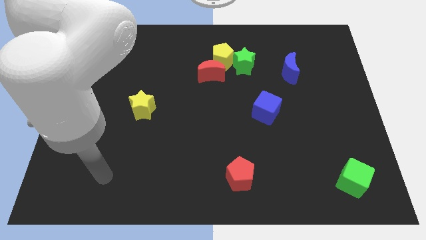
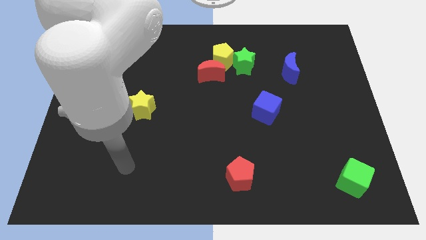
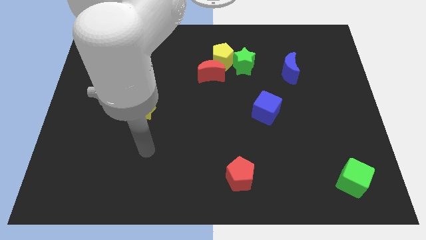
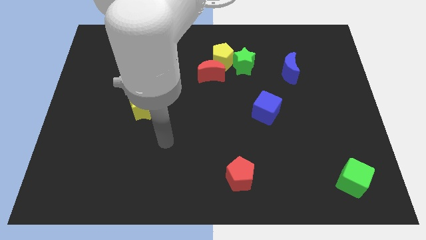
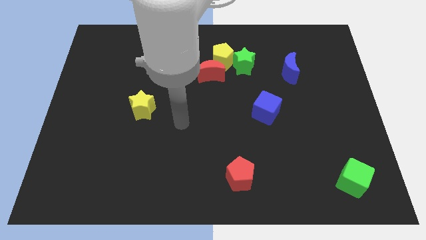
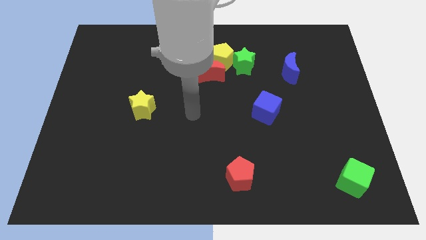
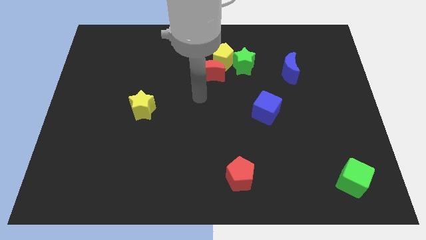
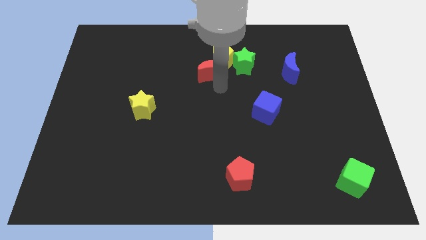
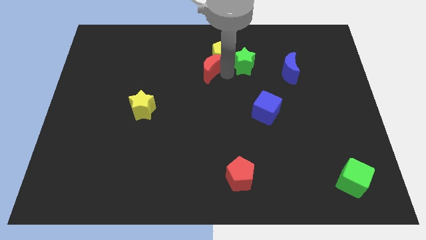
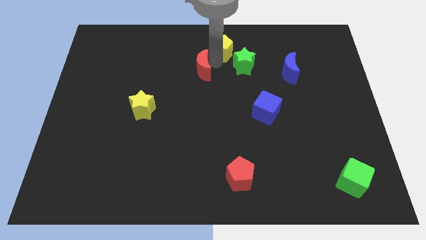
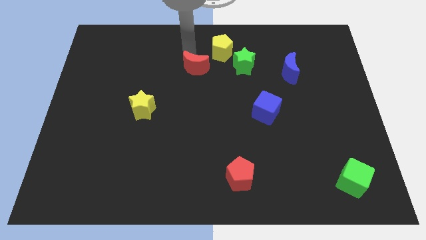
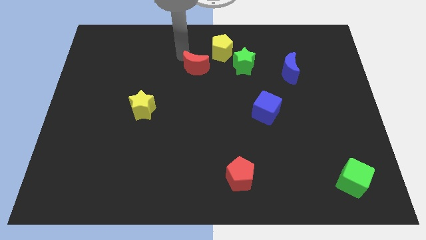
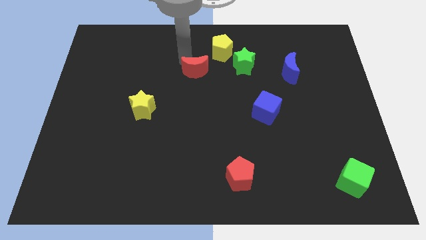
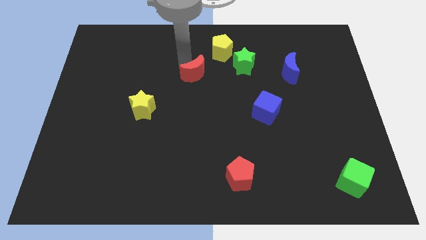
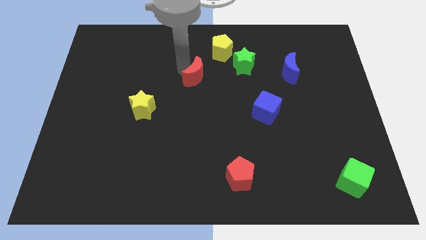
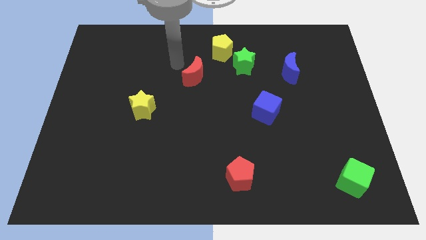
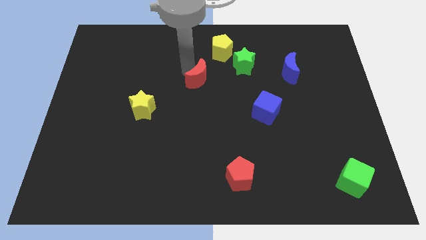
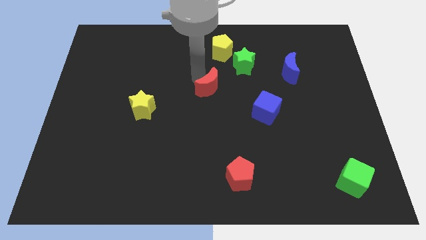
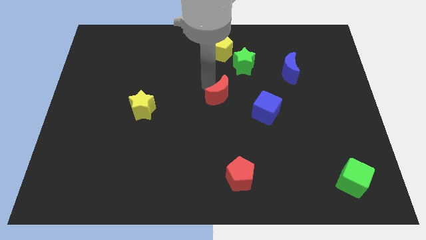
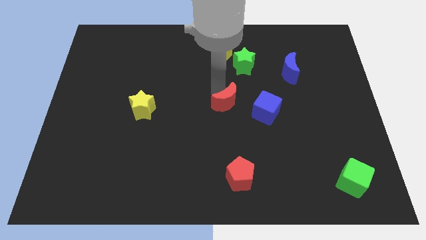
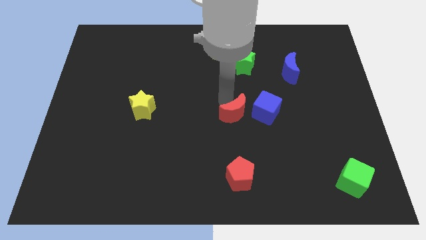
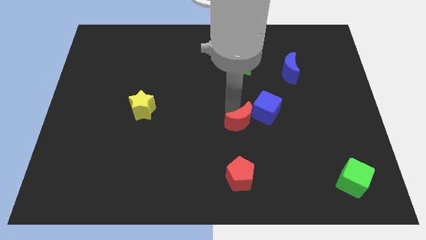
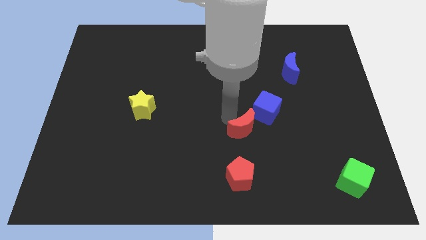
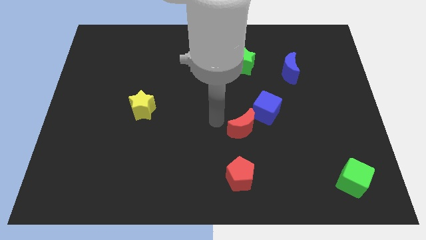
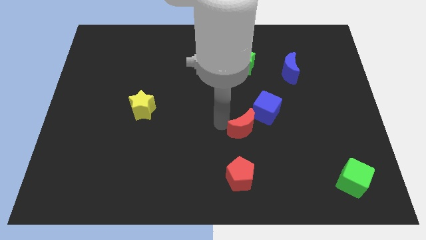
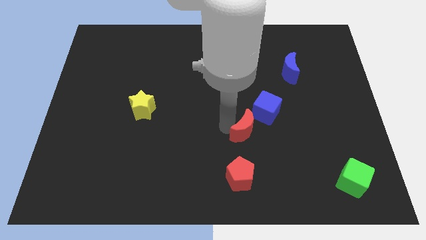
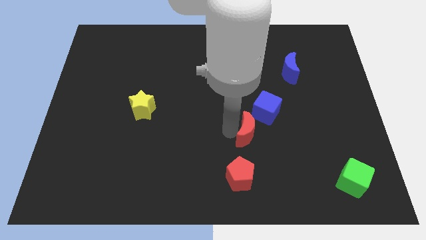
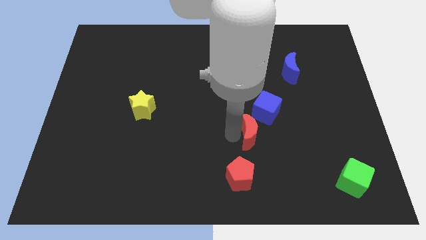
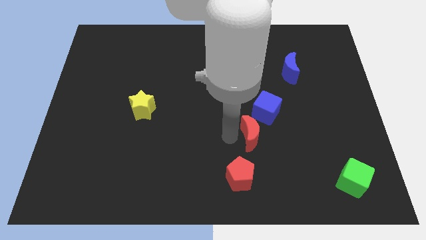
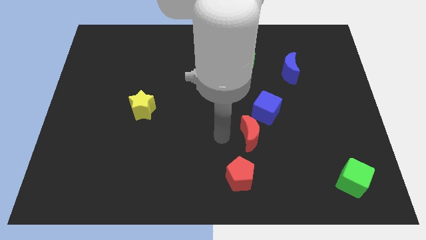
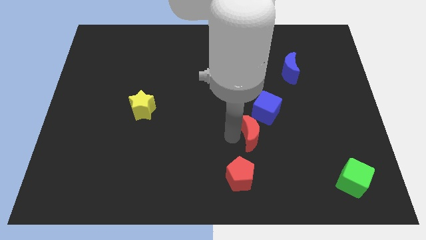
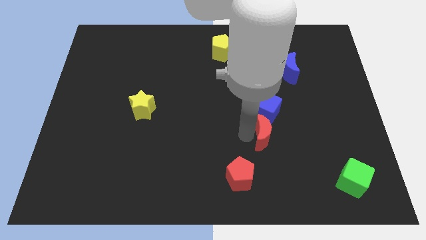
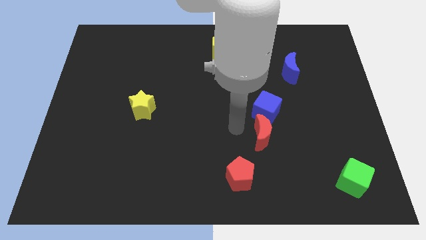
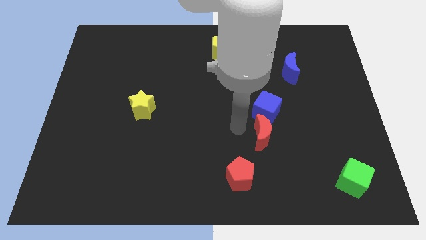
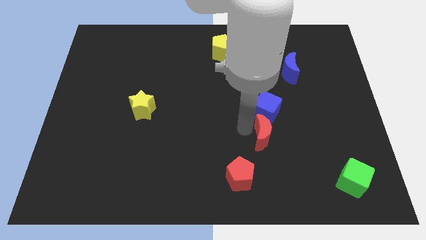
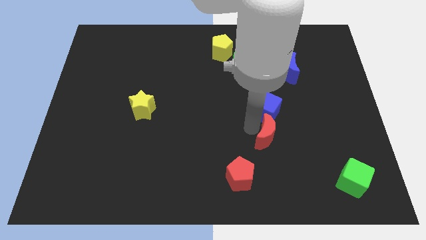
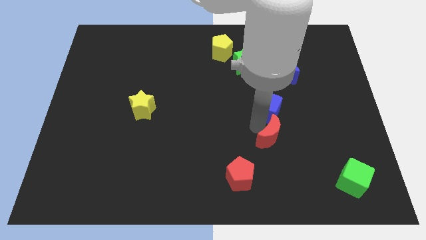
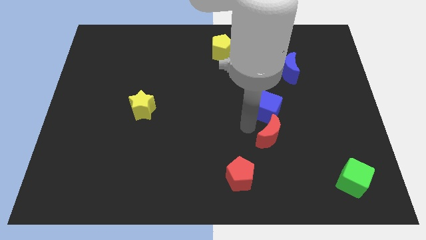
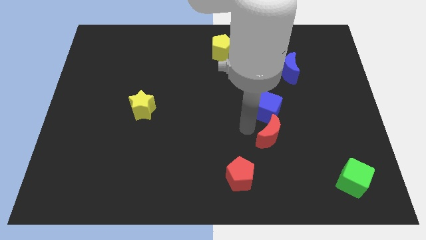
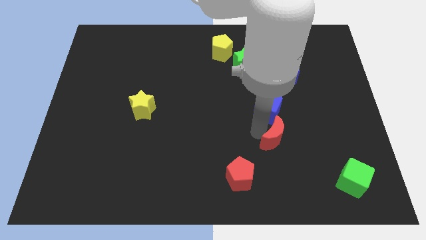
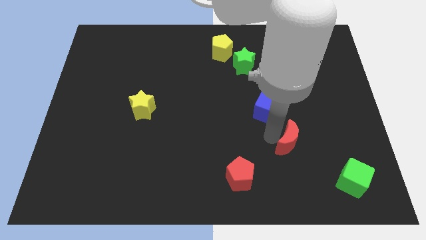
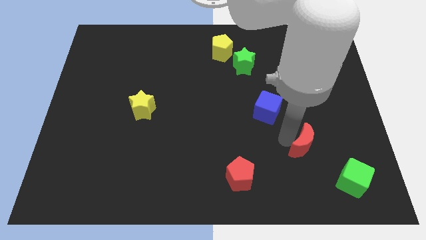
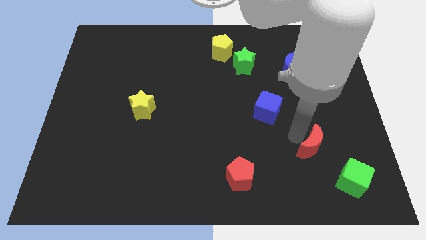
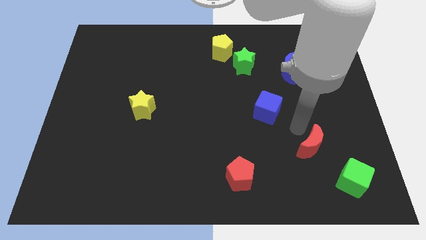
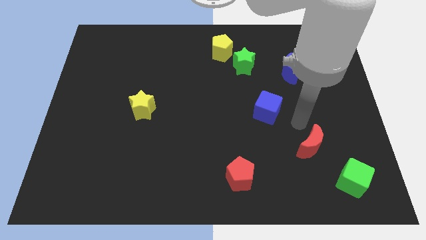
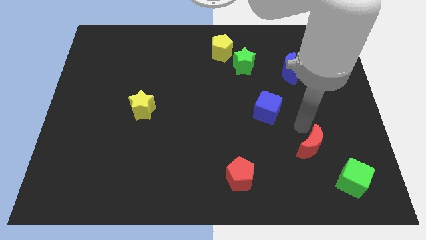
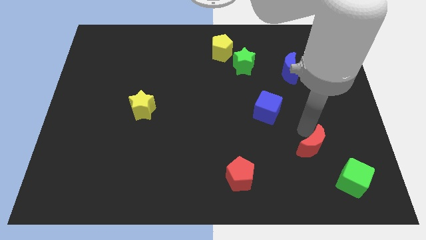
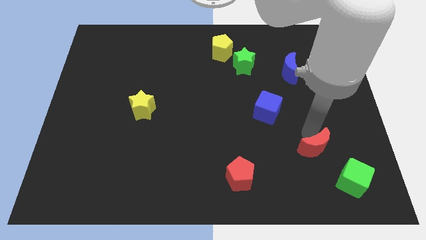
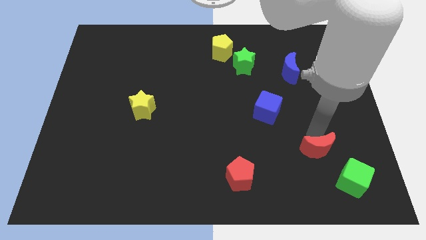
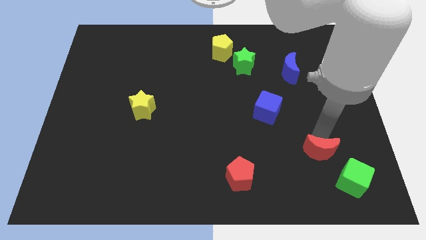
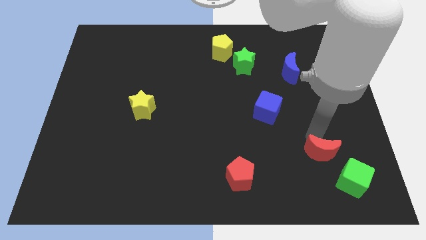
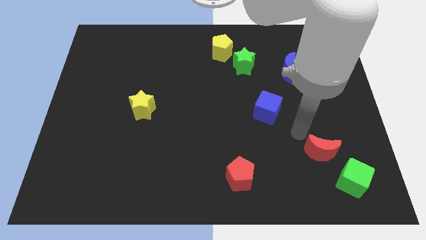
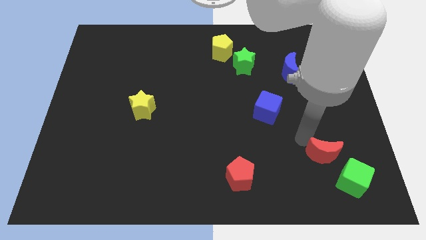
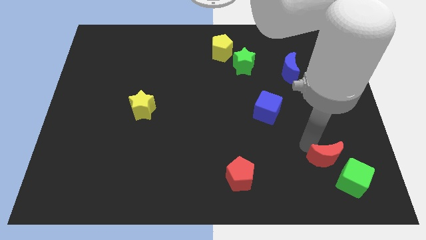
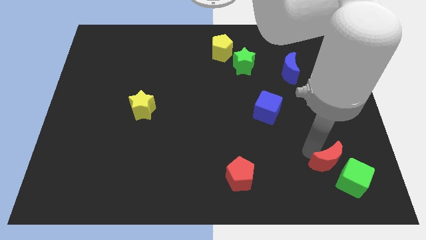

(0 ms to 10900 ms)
push the red moon close to the green cube

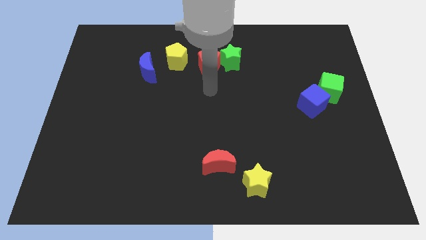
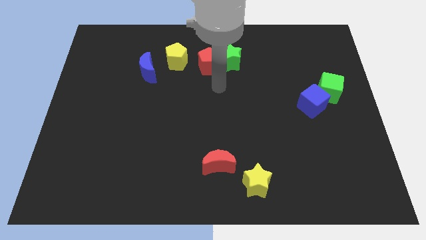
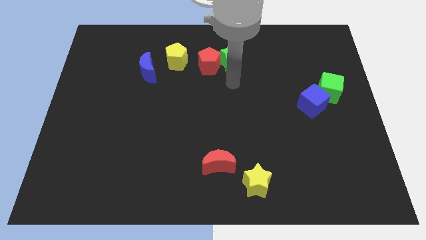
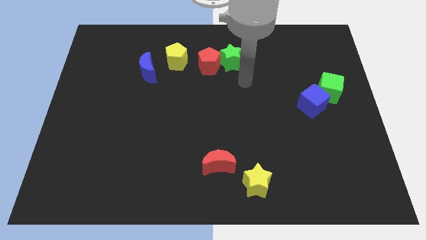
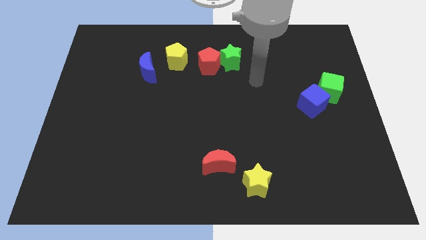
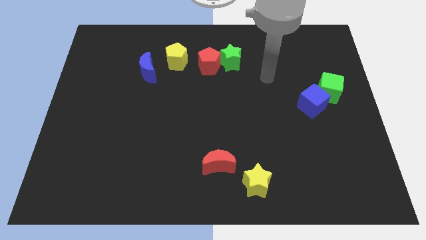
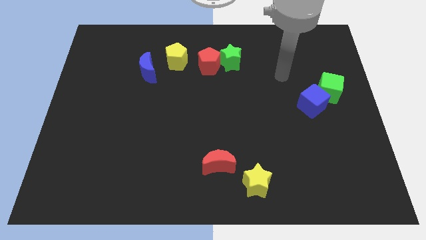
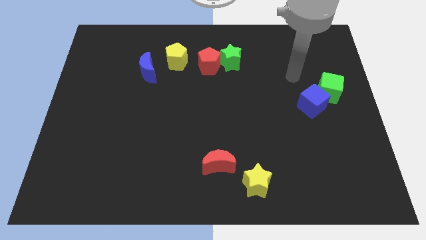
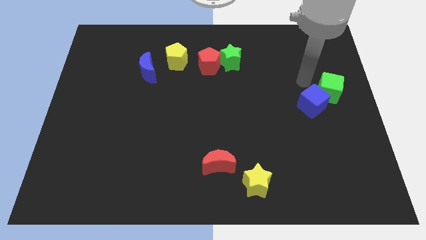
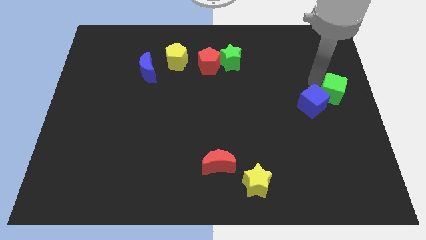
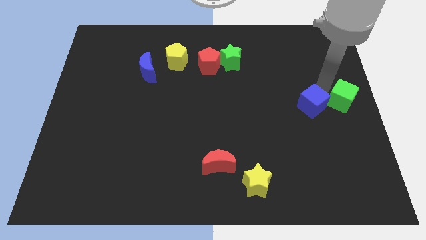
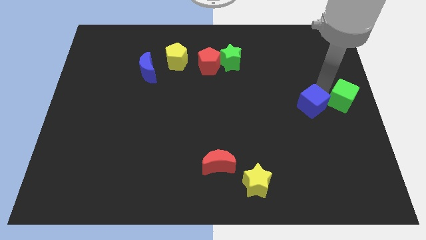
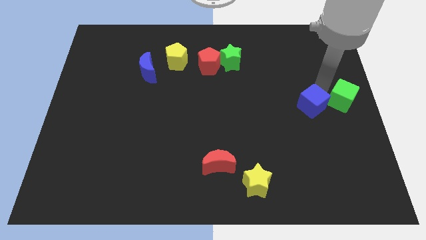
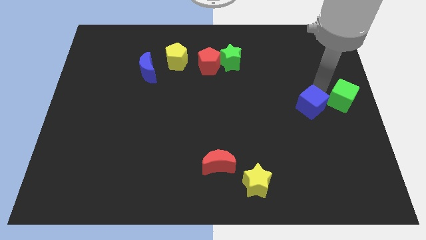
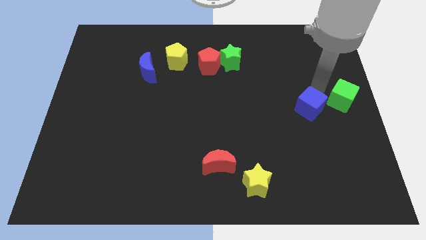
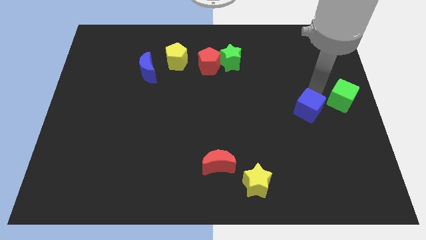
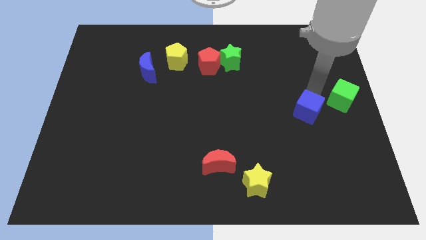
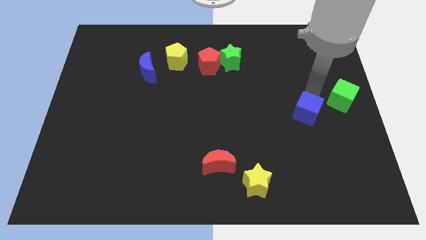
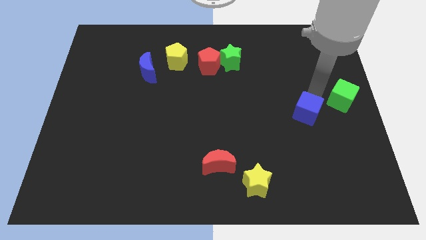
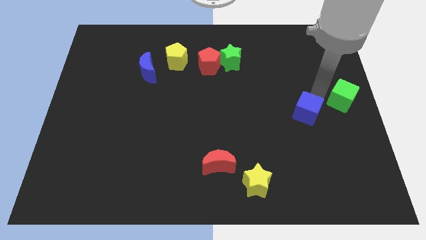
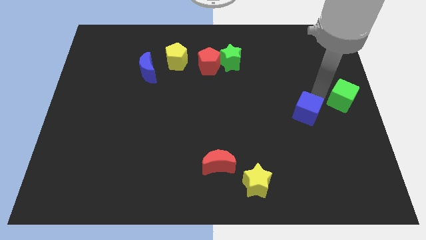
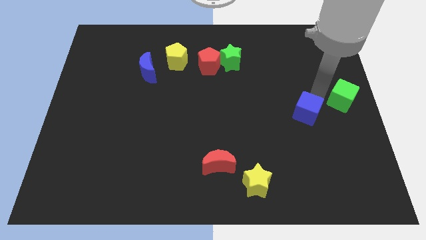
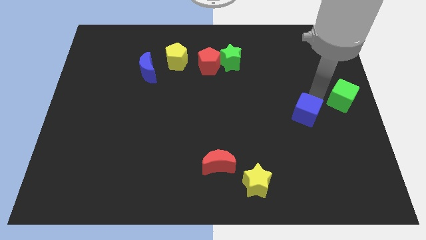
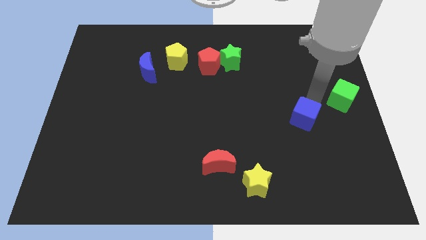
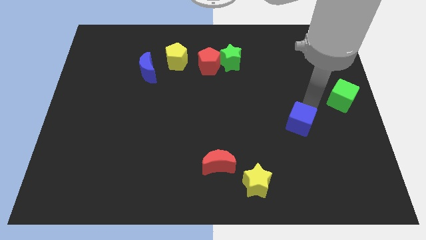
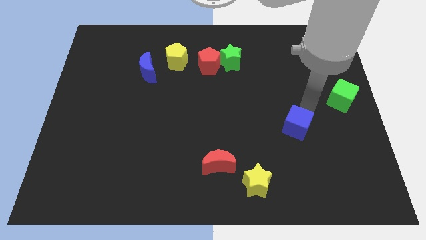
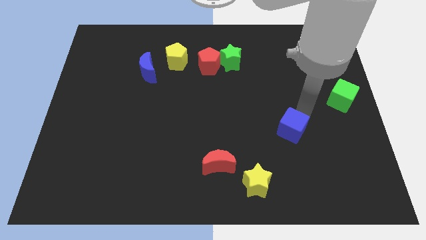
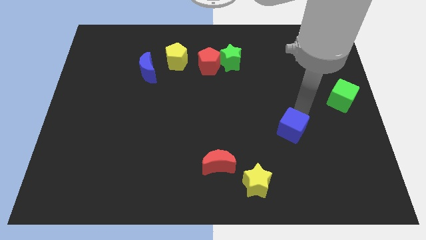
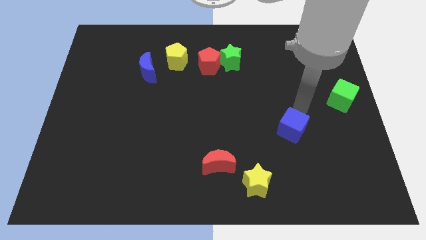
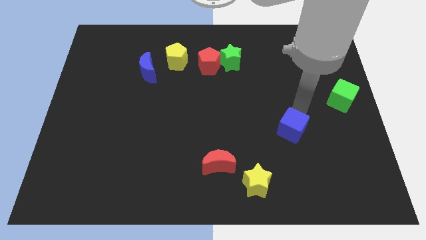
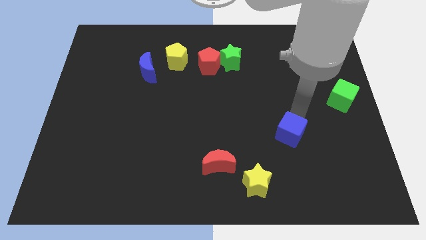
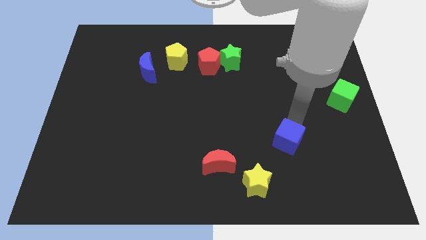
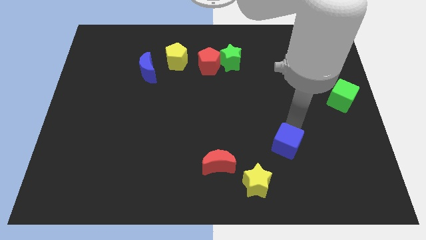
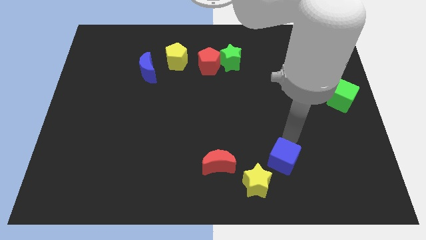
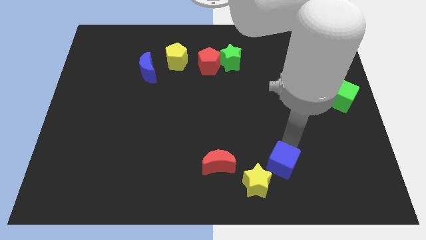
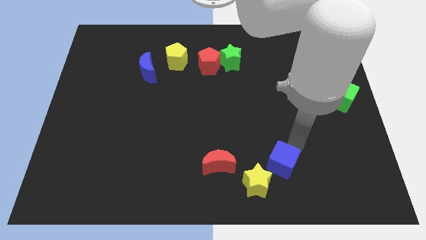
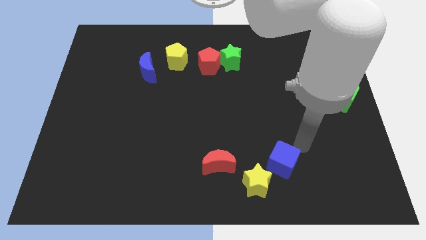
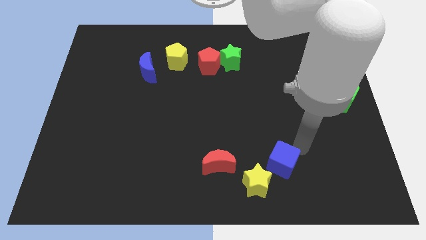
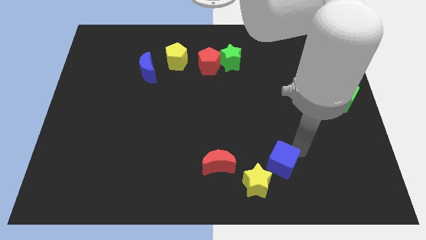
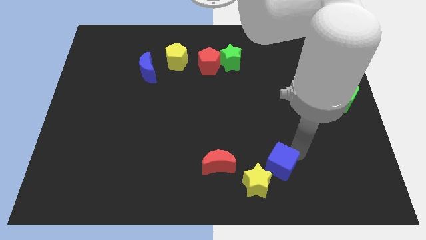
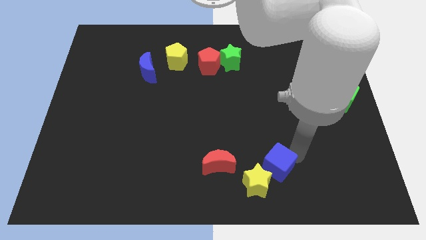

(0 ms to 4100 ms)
push the blue cube towards the yellow star
